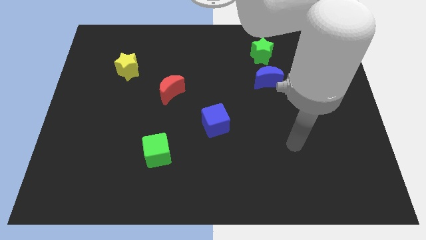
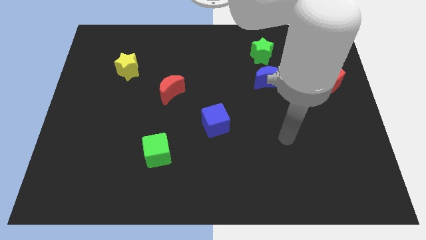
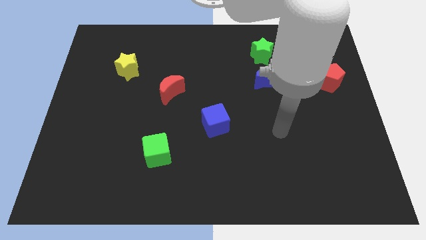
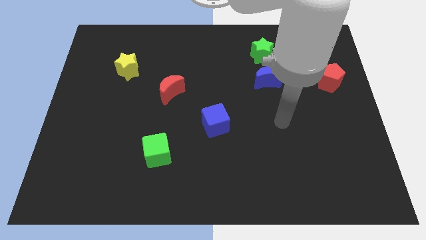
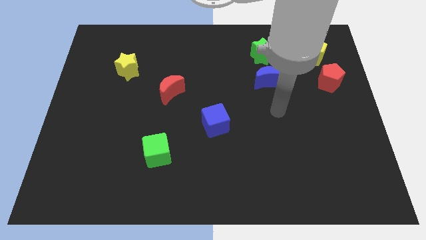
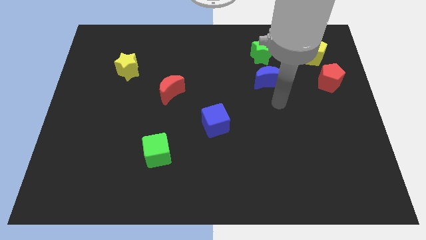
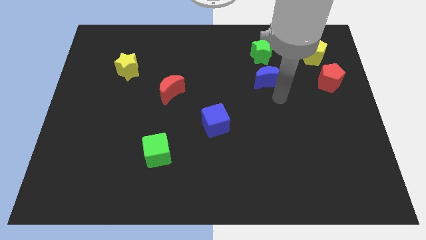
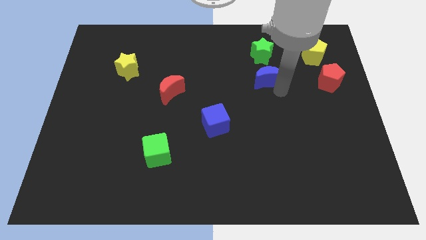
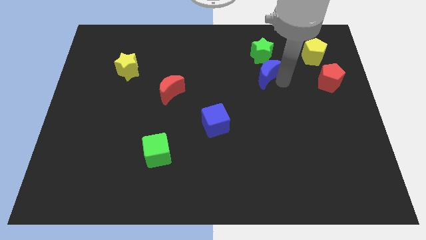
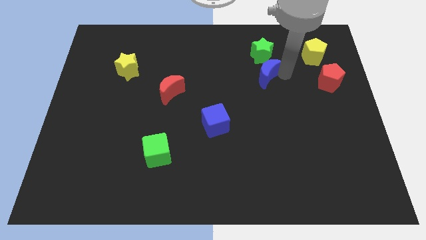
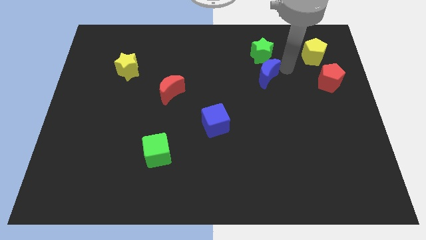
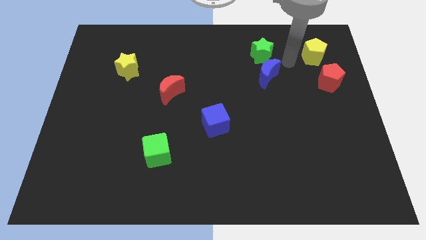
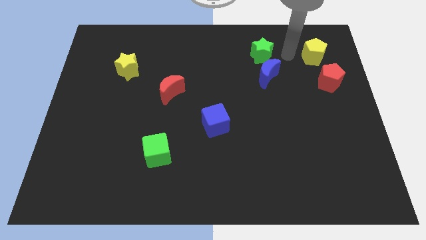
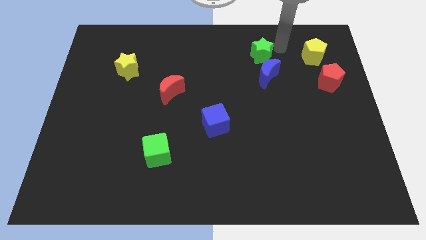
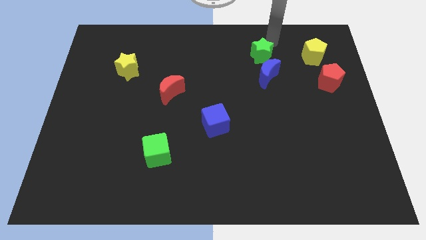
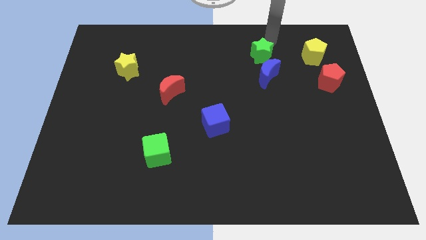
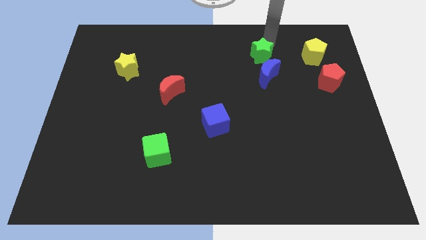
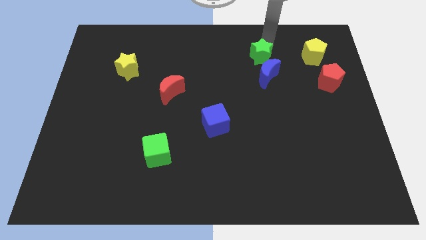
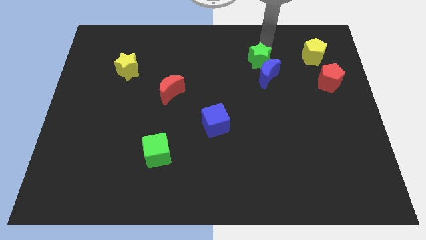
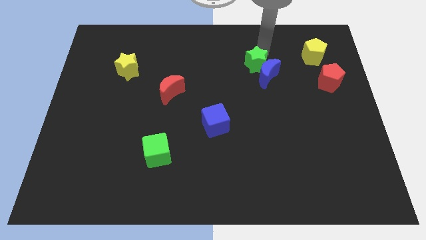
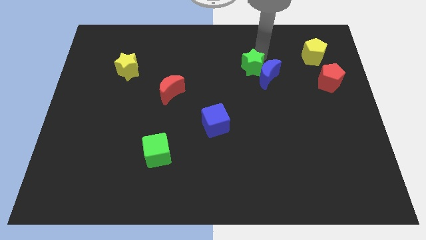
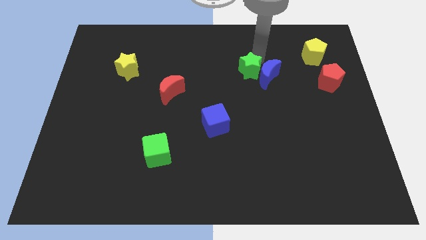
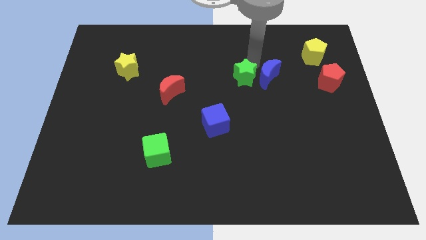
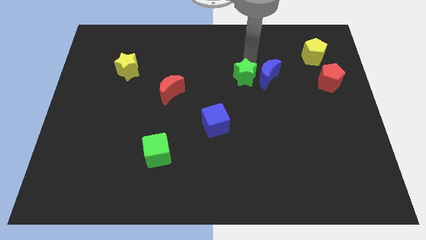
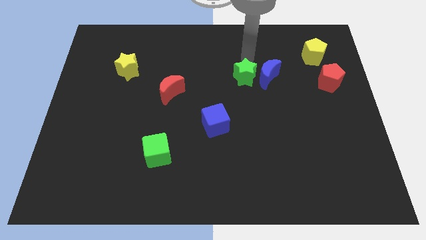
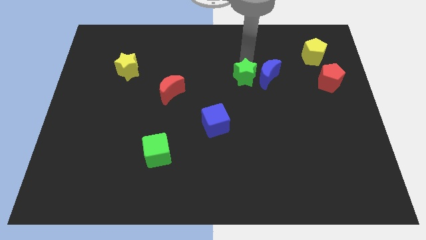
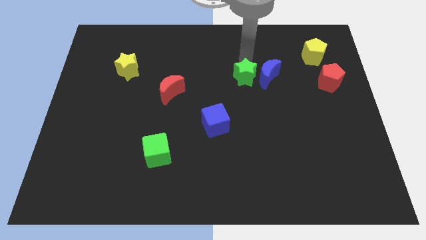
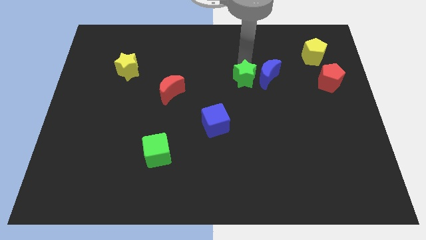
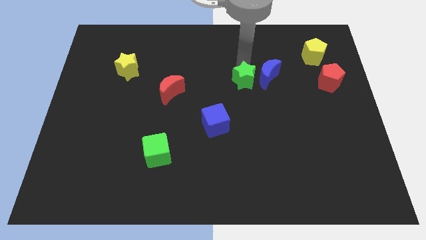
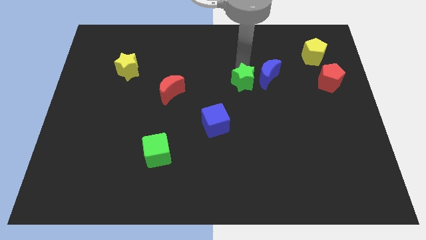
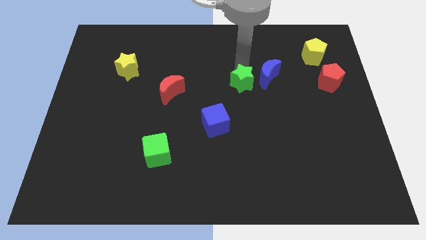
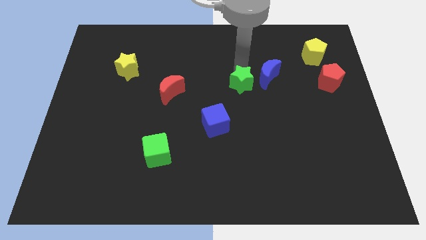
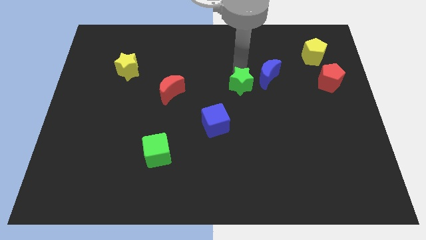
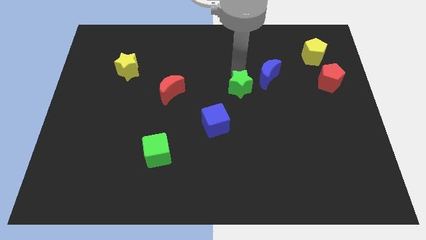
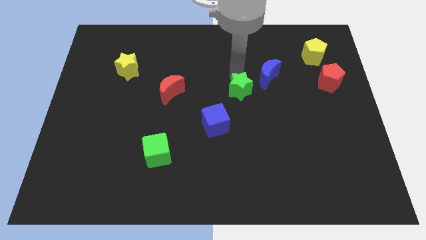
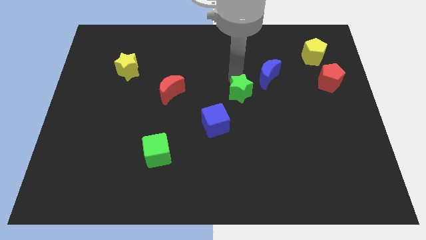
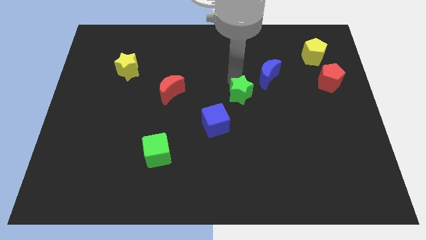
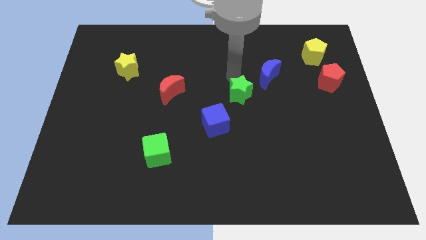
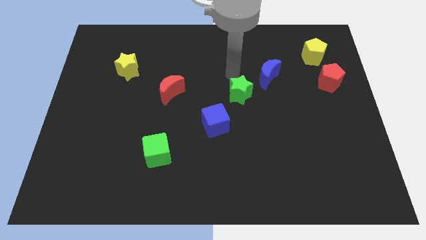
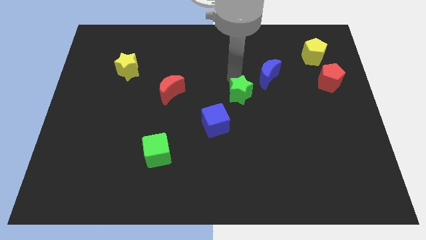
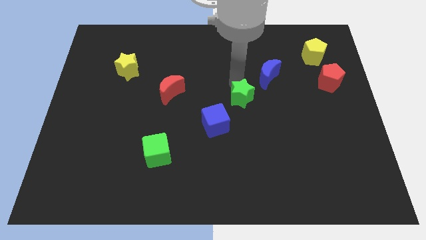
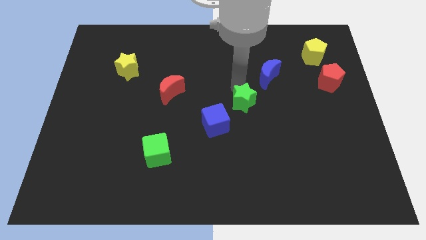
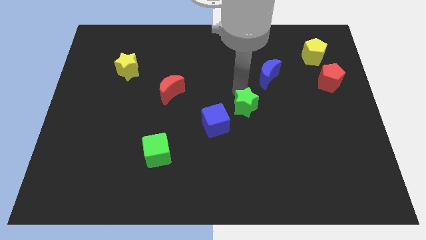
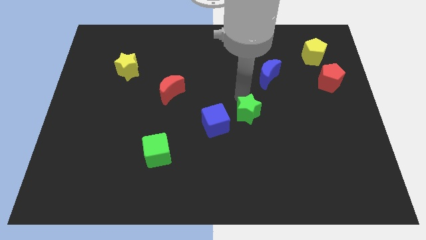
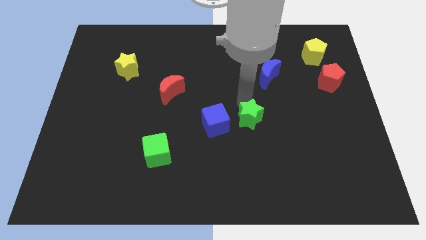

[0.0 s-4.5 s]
move the green star downwards

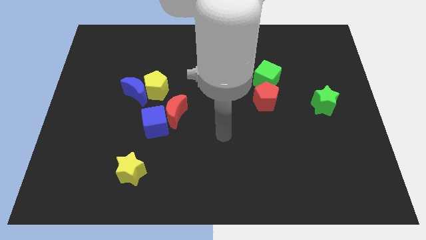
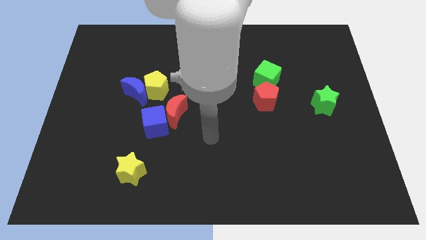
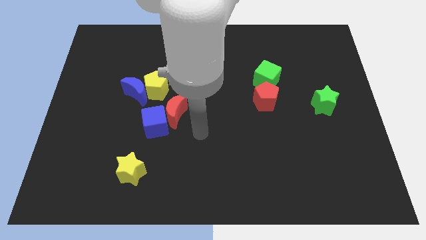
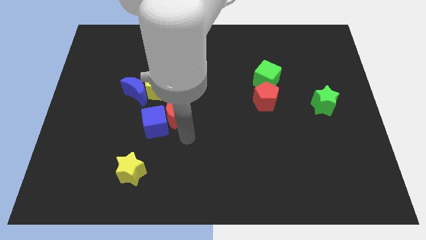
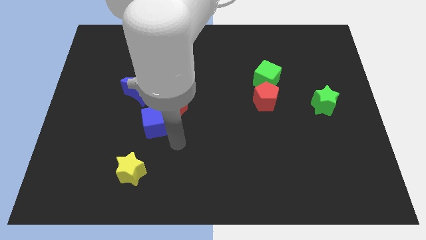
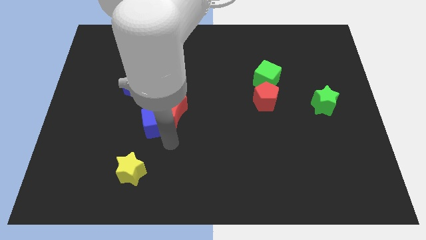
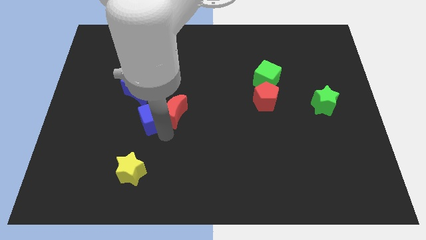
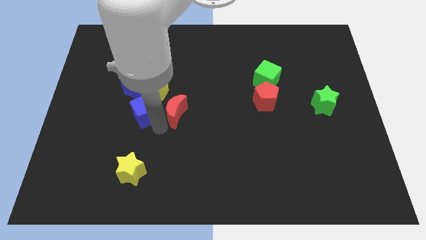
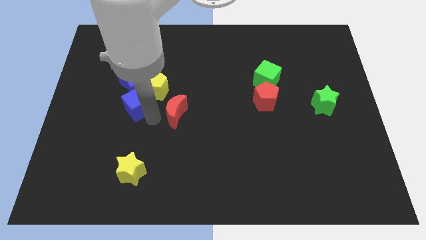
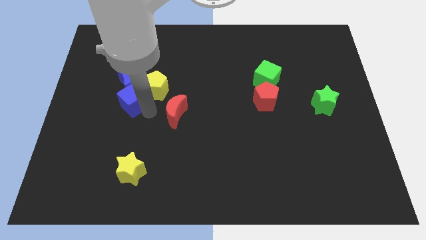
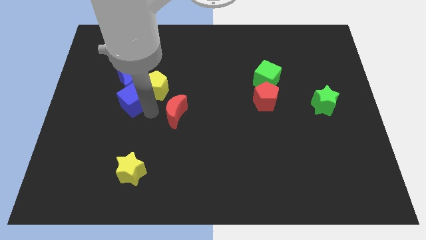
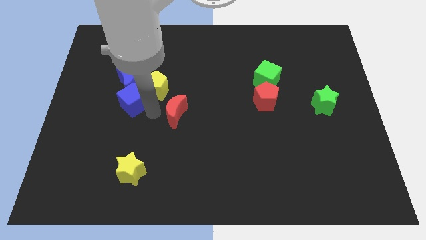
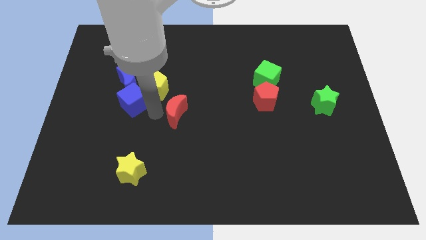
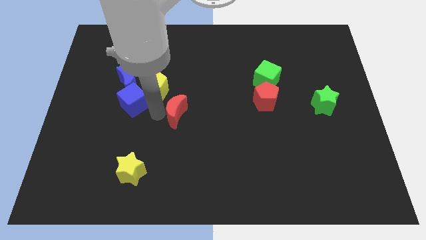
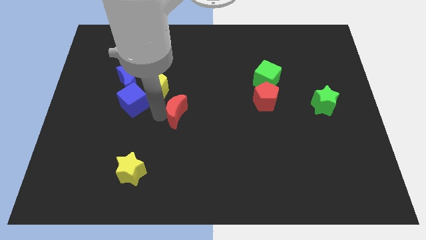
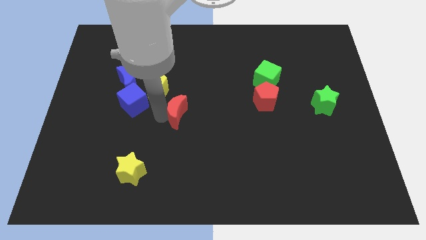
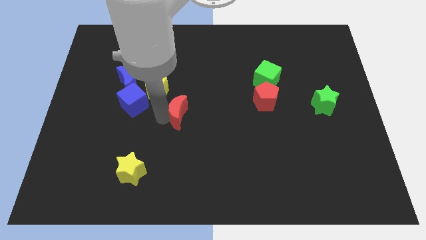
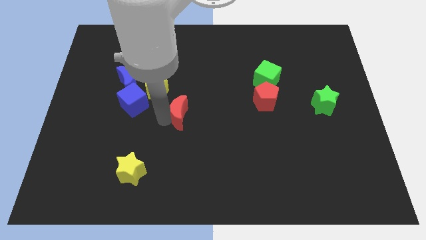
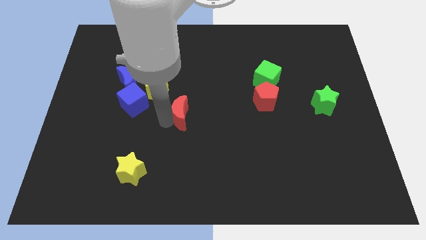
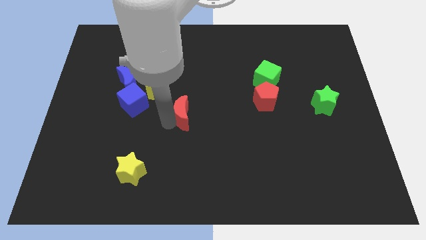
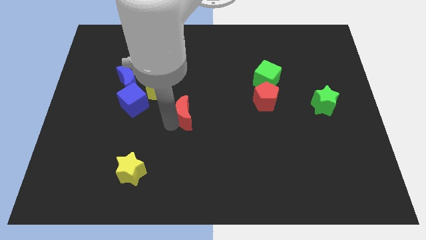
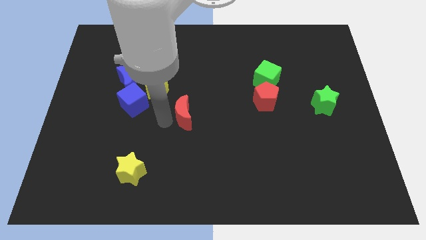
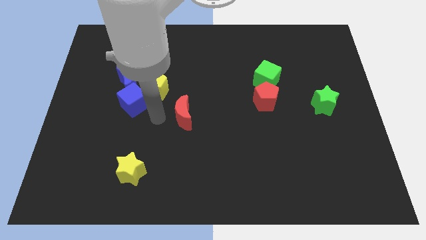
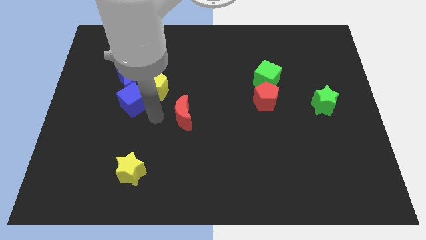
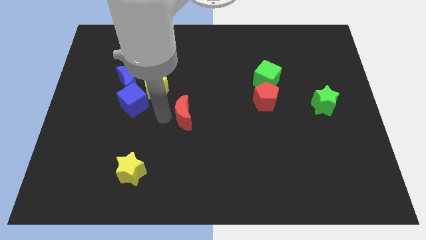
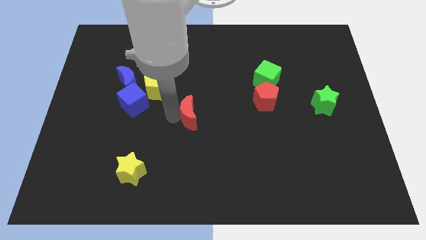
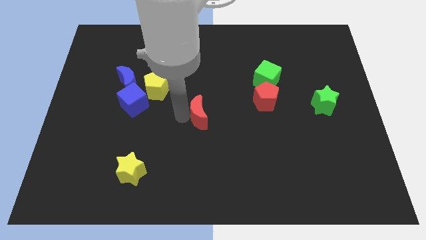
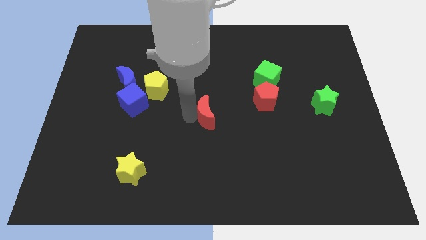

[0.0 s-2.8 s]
push the red moon somewhat right

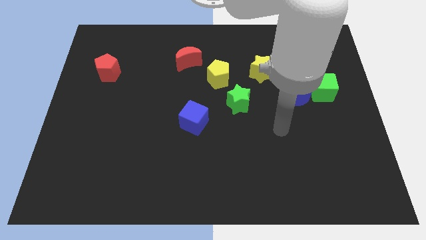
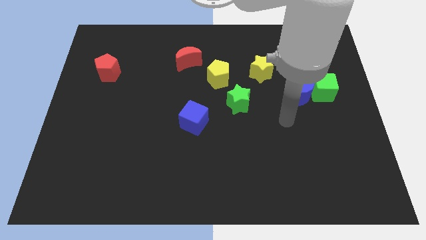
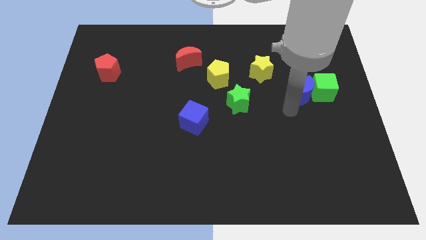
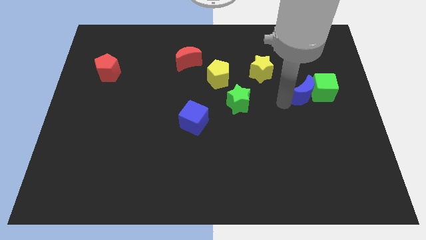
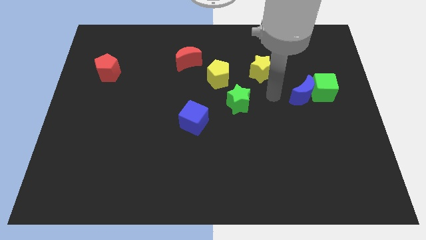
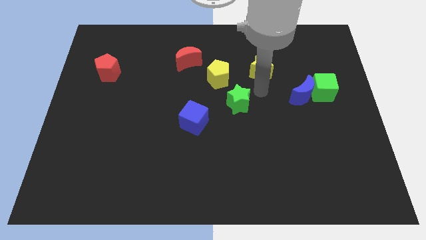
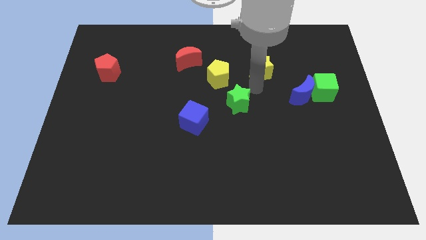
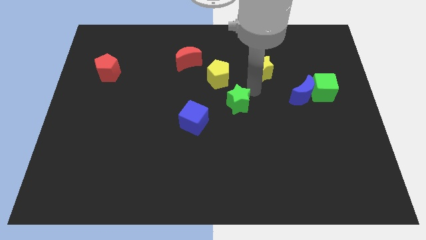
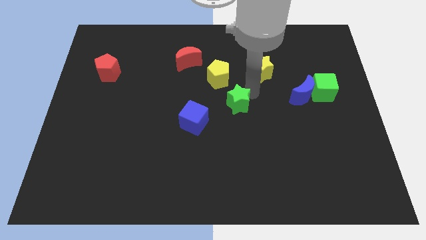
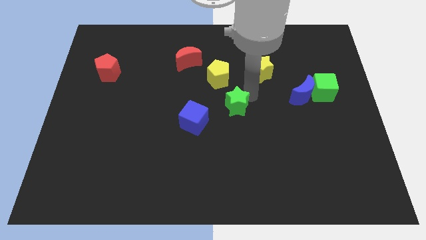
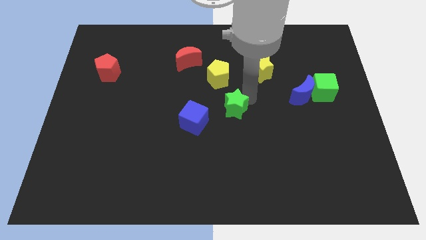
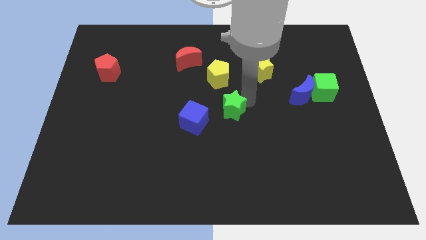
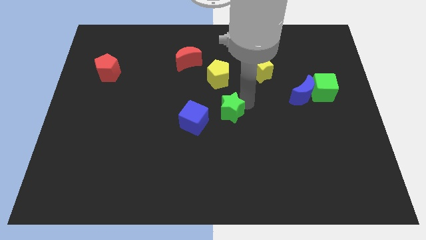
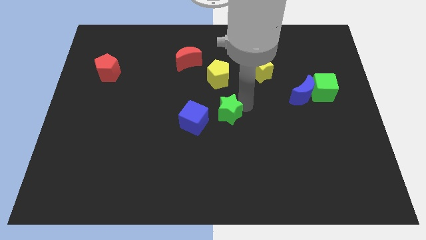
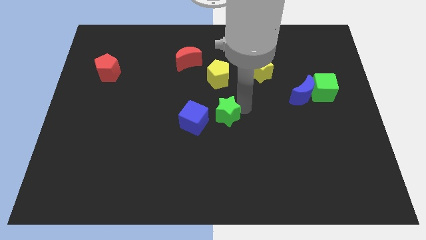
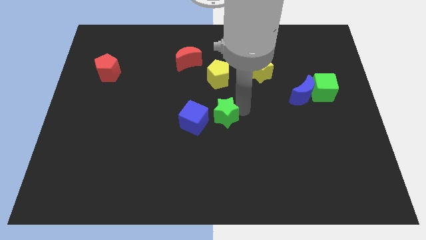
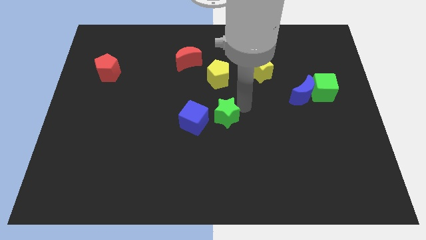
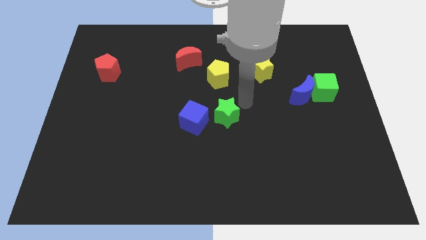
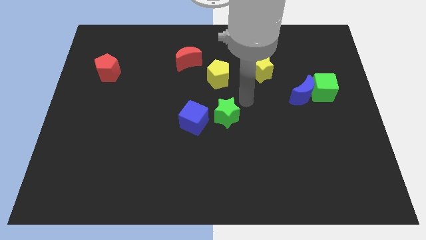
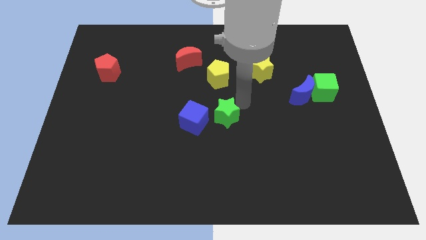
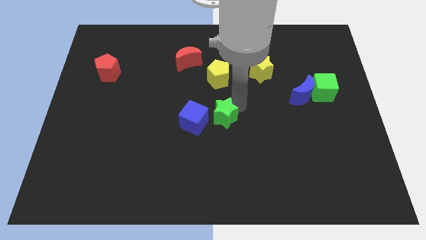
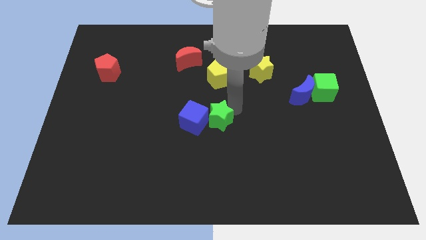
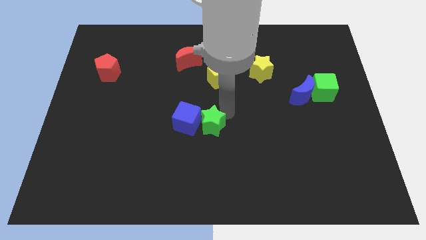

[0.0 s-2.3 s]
slightly slide the green star downwards and then to the left
